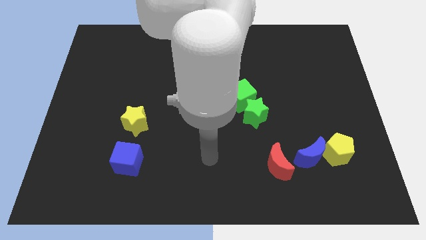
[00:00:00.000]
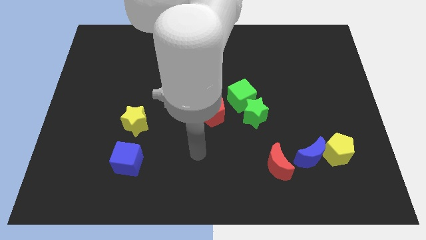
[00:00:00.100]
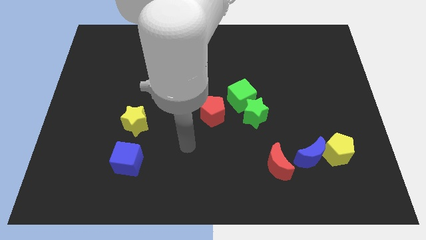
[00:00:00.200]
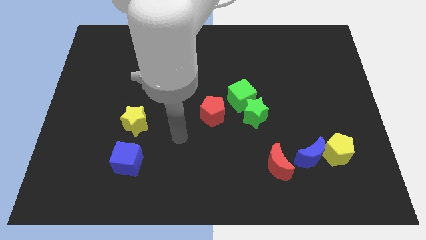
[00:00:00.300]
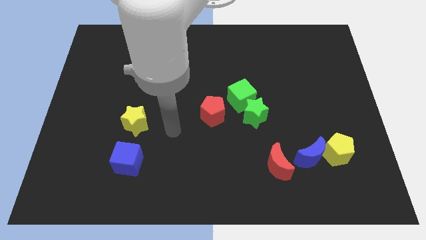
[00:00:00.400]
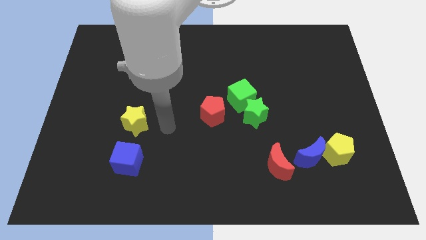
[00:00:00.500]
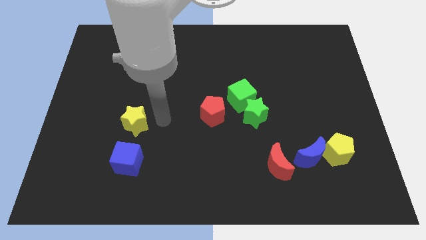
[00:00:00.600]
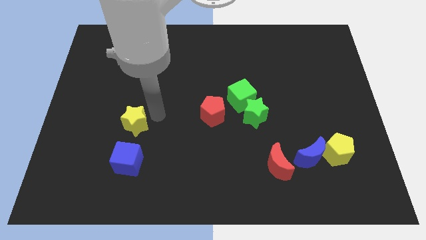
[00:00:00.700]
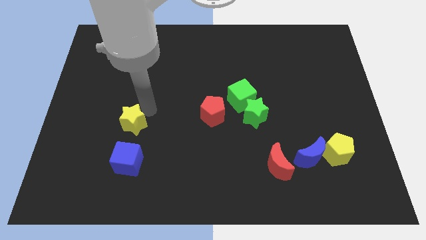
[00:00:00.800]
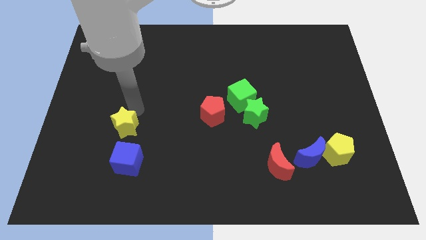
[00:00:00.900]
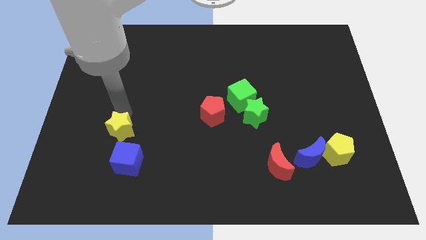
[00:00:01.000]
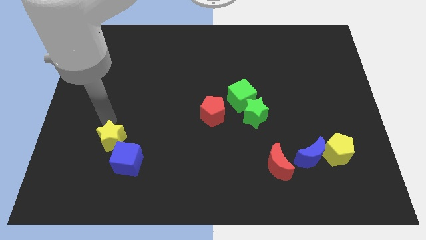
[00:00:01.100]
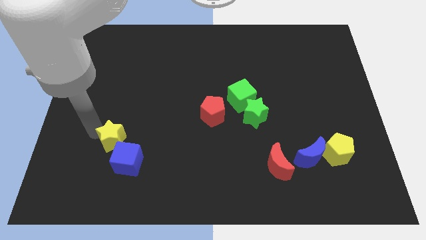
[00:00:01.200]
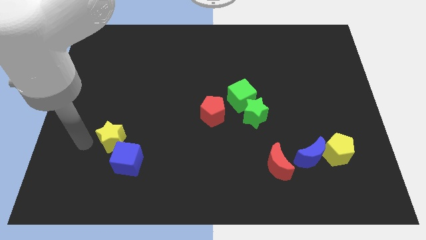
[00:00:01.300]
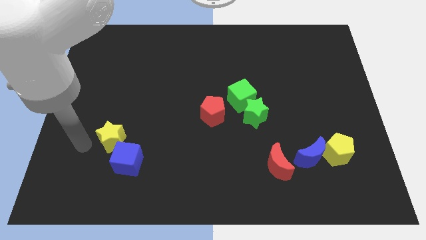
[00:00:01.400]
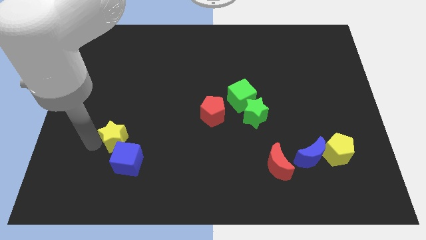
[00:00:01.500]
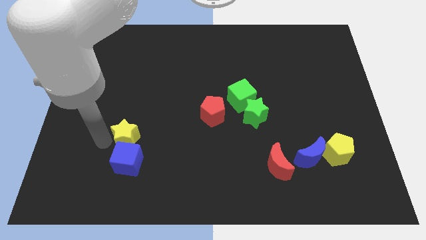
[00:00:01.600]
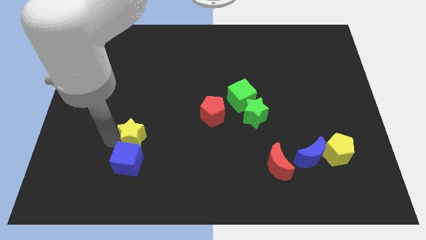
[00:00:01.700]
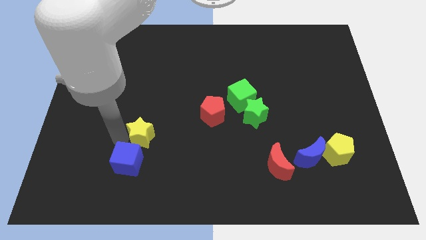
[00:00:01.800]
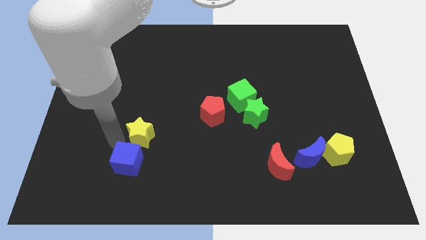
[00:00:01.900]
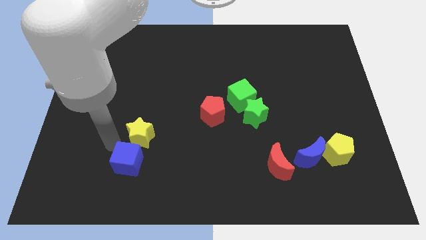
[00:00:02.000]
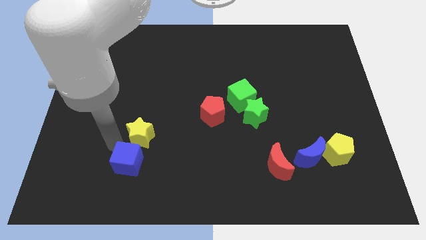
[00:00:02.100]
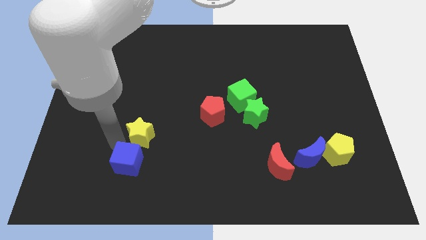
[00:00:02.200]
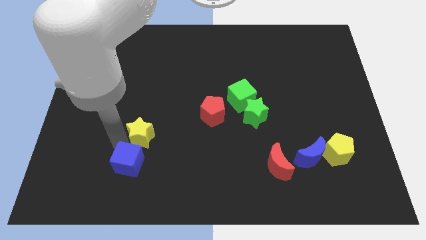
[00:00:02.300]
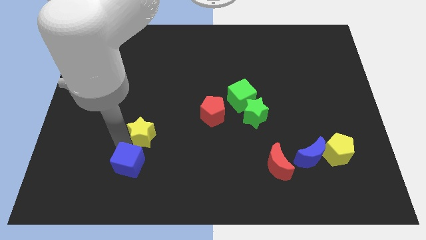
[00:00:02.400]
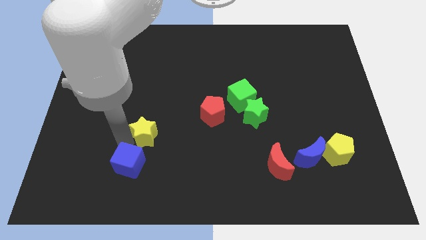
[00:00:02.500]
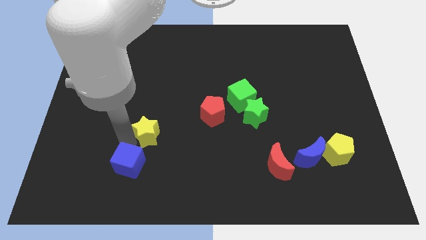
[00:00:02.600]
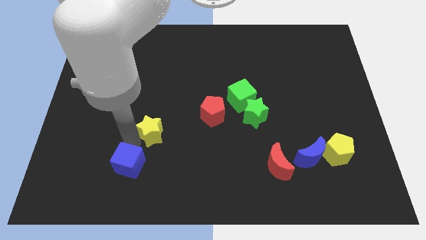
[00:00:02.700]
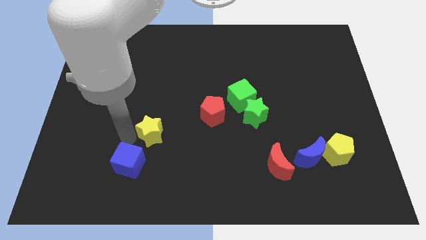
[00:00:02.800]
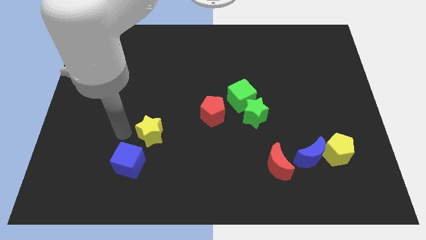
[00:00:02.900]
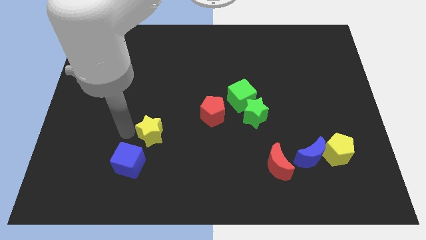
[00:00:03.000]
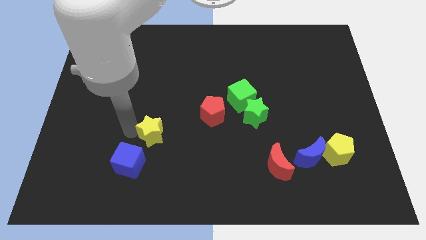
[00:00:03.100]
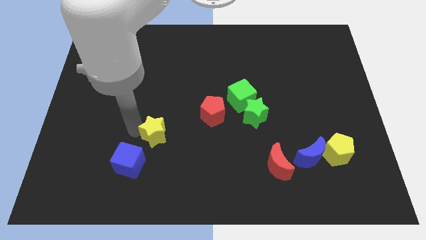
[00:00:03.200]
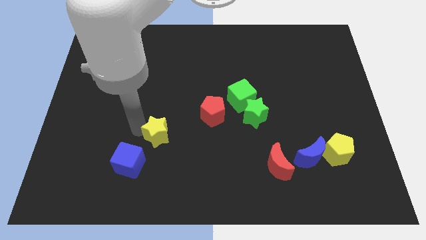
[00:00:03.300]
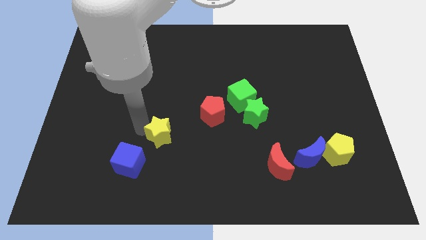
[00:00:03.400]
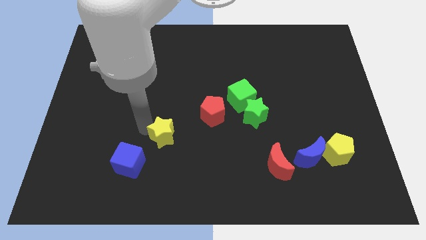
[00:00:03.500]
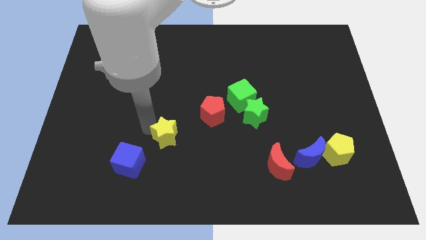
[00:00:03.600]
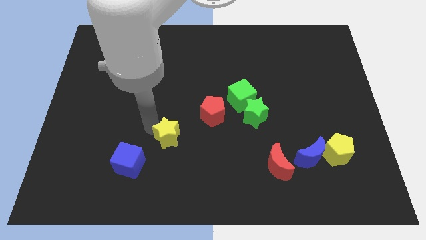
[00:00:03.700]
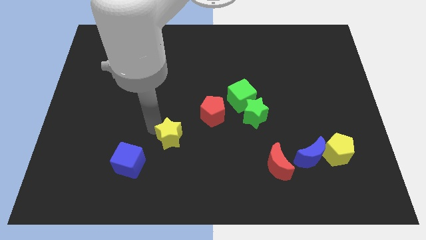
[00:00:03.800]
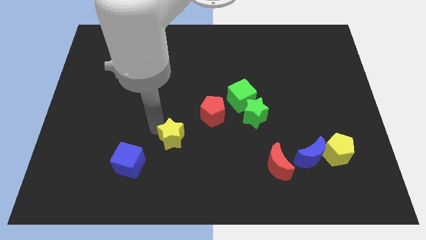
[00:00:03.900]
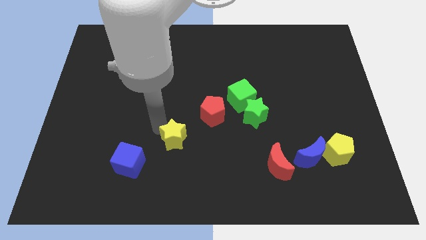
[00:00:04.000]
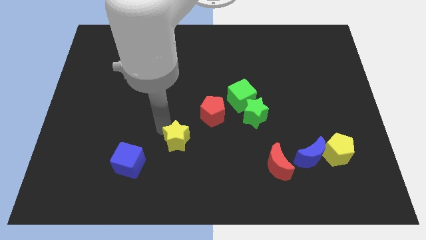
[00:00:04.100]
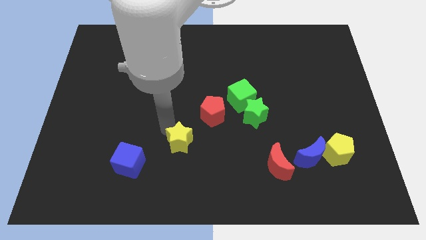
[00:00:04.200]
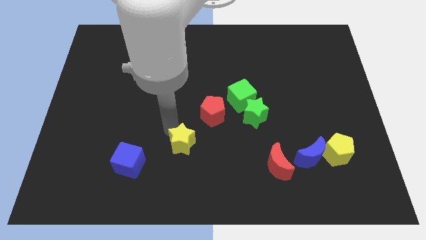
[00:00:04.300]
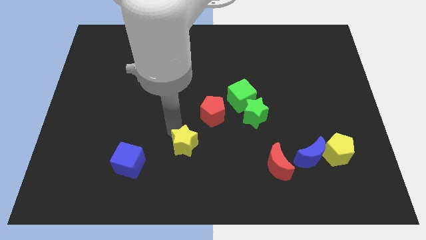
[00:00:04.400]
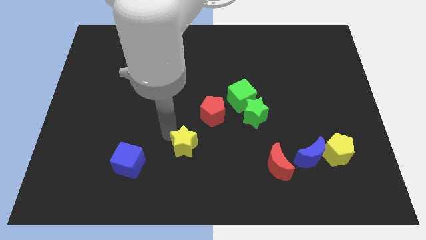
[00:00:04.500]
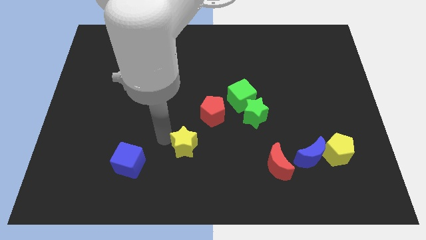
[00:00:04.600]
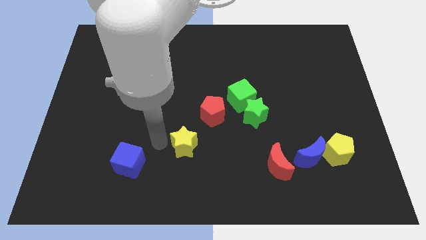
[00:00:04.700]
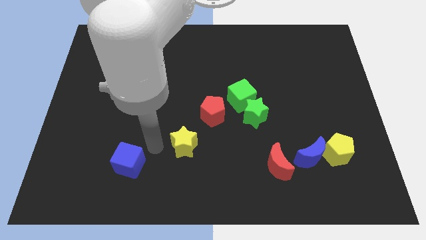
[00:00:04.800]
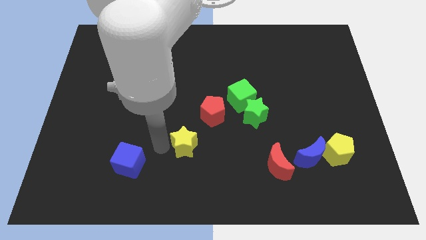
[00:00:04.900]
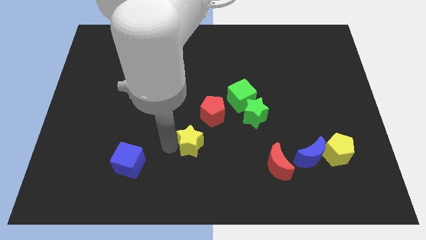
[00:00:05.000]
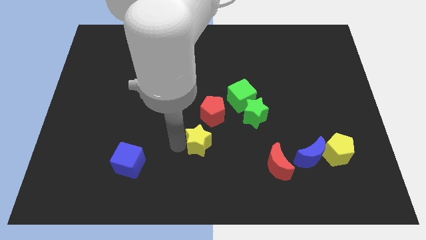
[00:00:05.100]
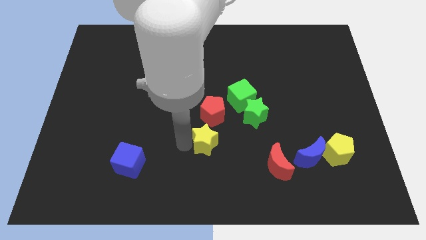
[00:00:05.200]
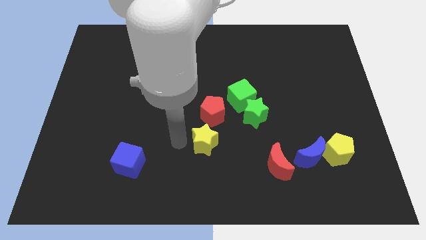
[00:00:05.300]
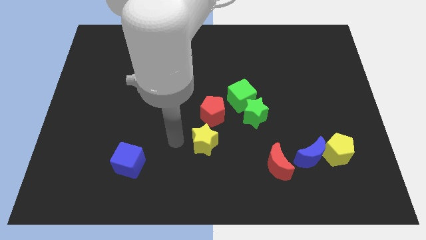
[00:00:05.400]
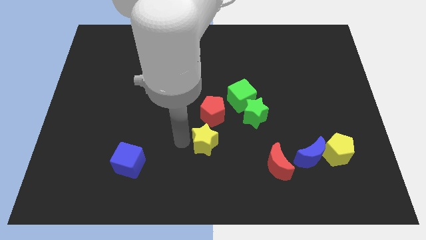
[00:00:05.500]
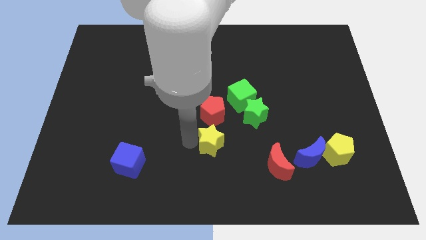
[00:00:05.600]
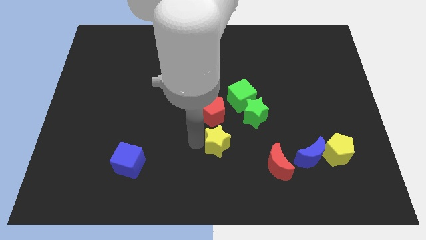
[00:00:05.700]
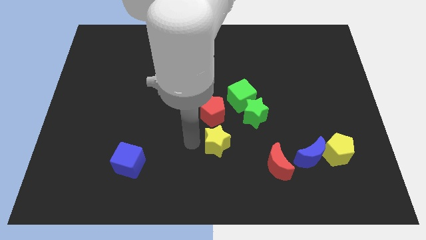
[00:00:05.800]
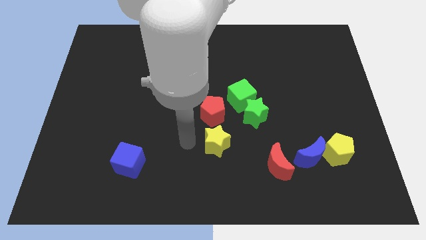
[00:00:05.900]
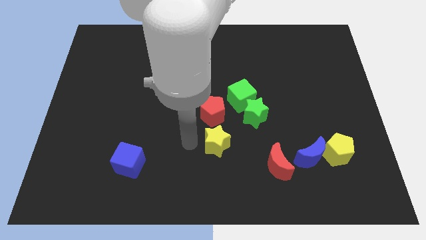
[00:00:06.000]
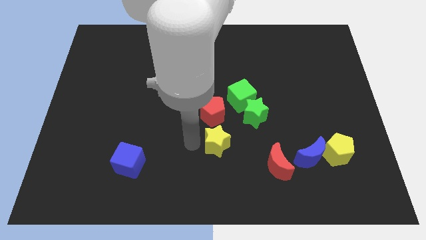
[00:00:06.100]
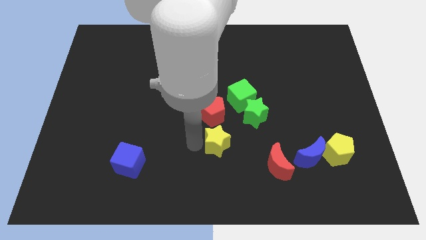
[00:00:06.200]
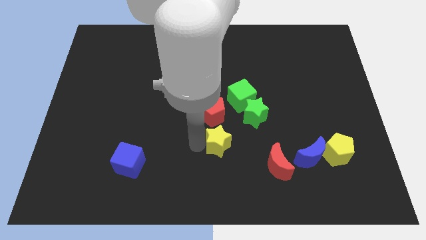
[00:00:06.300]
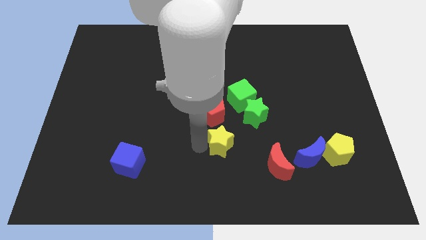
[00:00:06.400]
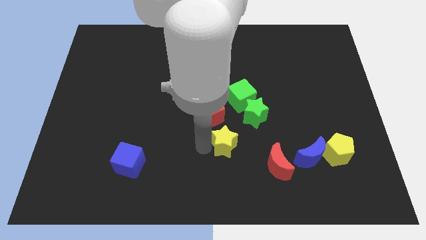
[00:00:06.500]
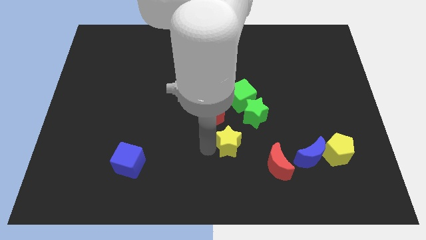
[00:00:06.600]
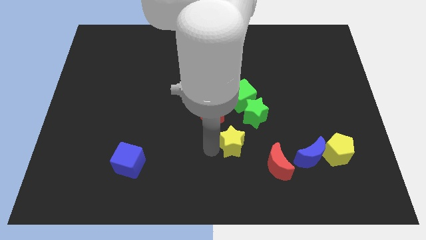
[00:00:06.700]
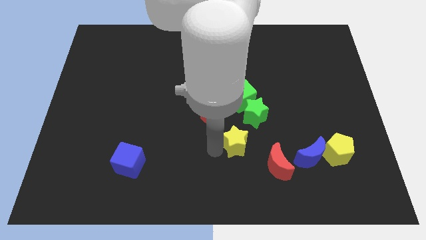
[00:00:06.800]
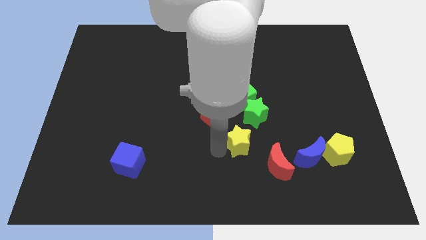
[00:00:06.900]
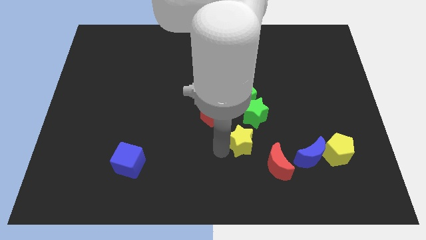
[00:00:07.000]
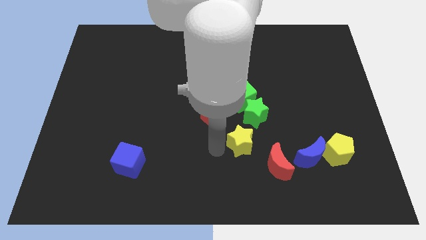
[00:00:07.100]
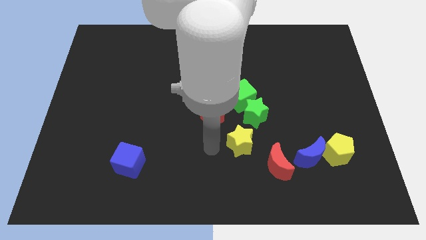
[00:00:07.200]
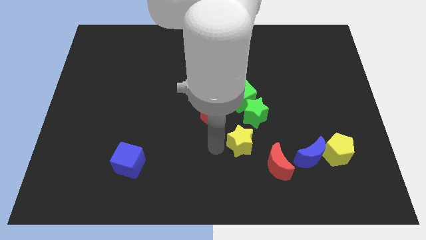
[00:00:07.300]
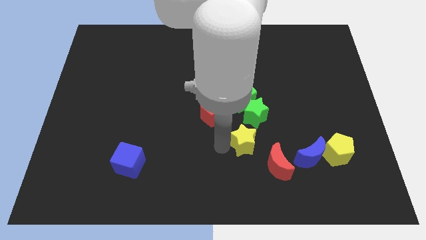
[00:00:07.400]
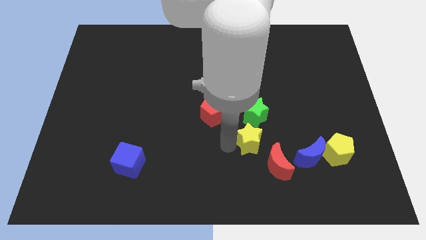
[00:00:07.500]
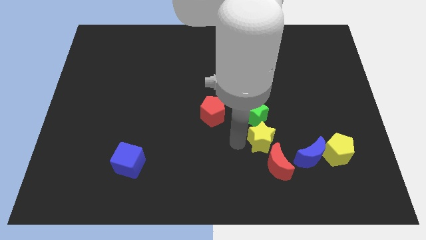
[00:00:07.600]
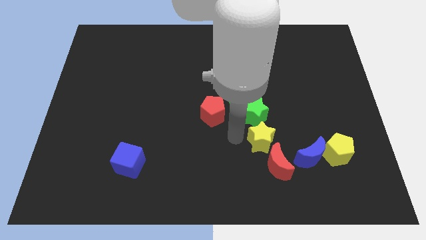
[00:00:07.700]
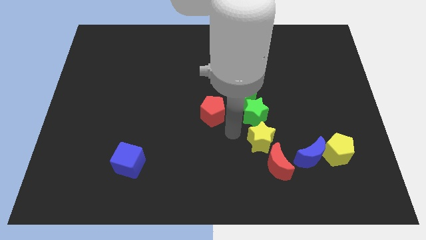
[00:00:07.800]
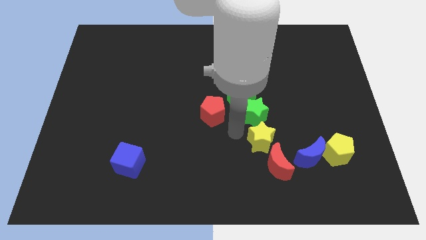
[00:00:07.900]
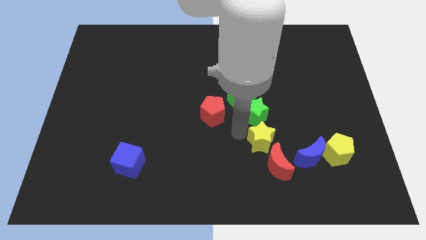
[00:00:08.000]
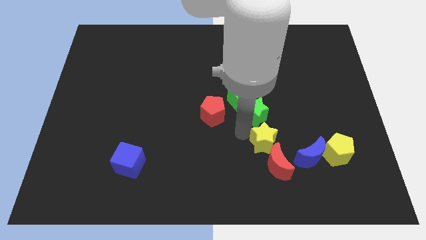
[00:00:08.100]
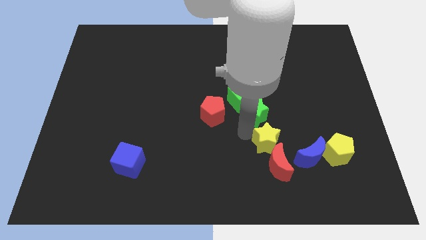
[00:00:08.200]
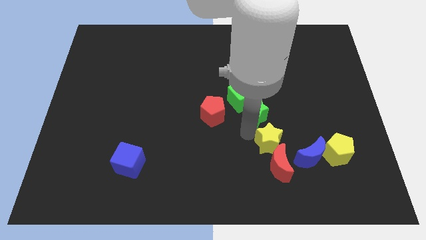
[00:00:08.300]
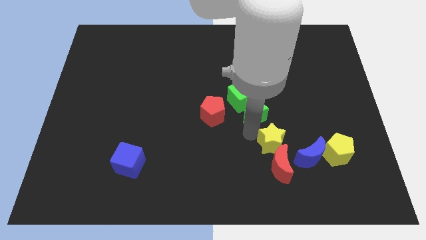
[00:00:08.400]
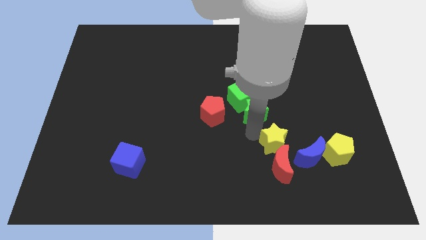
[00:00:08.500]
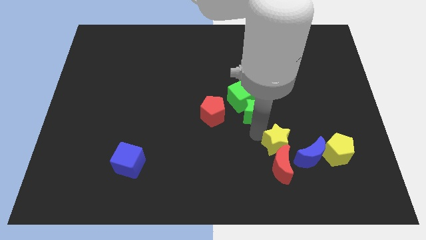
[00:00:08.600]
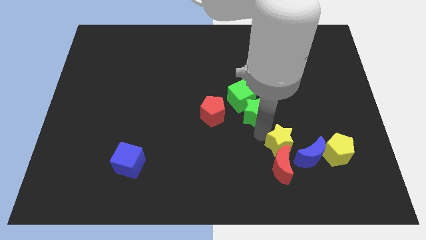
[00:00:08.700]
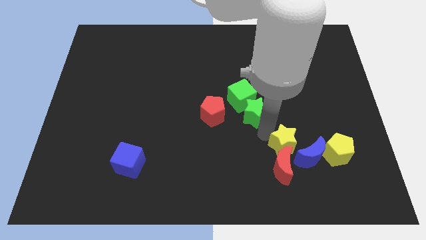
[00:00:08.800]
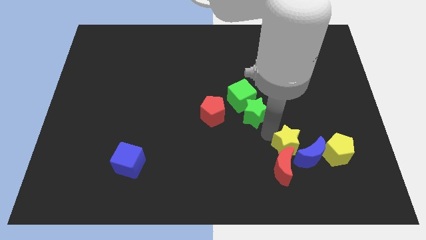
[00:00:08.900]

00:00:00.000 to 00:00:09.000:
move the yellow star to the blue moon
